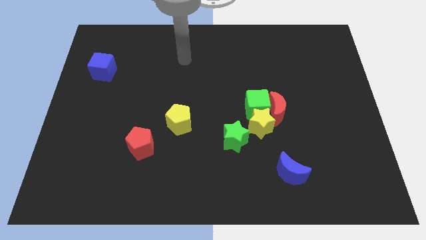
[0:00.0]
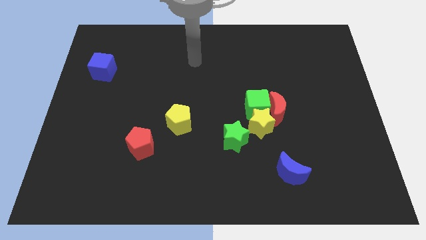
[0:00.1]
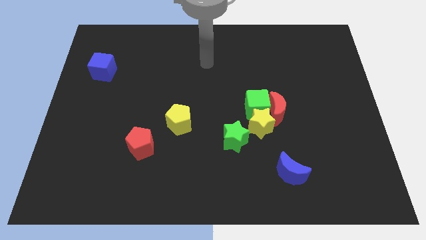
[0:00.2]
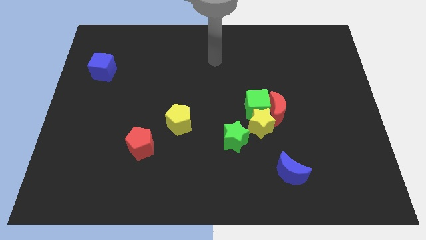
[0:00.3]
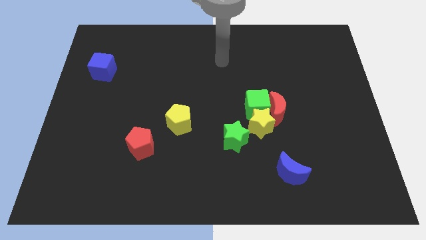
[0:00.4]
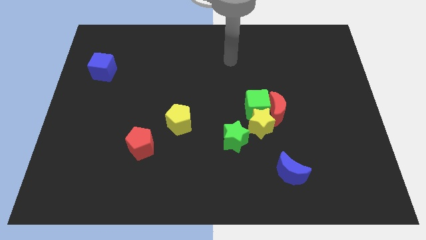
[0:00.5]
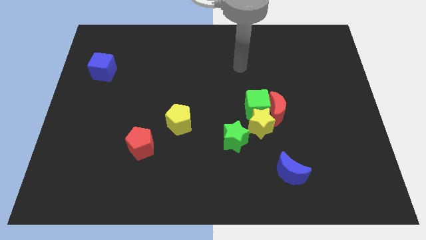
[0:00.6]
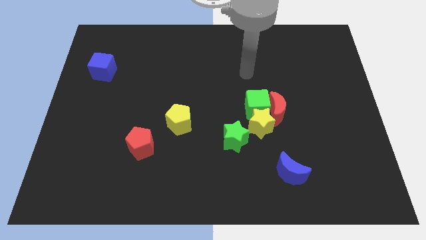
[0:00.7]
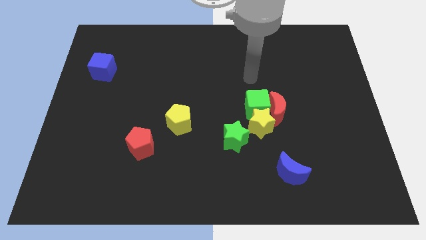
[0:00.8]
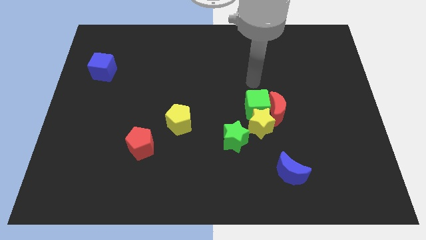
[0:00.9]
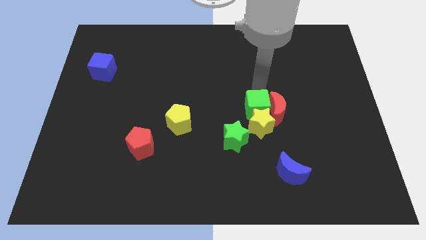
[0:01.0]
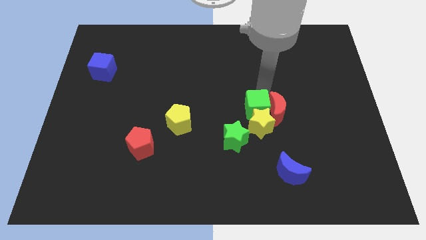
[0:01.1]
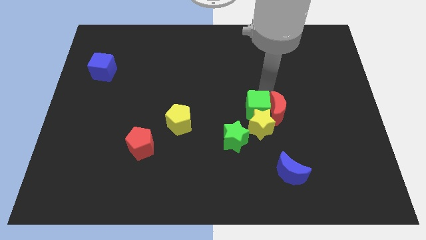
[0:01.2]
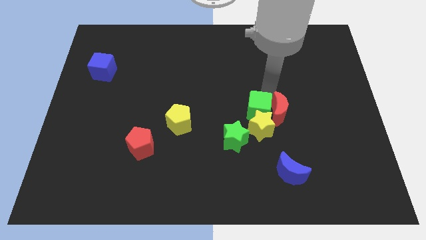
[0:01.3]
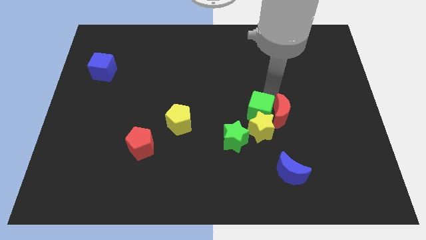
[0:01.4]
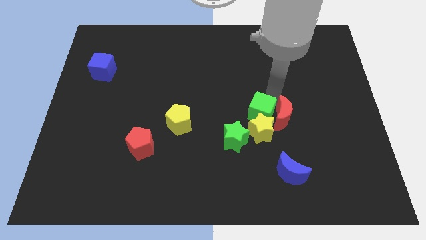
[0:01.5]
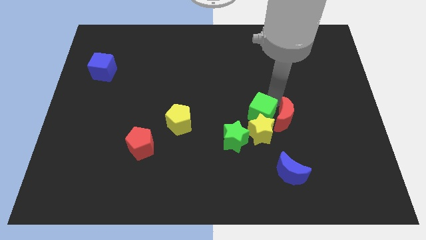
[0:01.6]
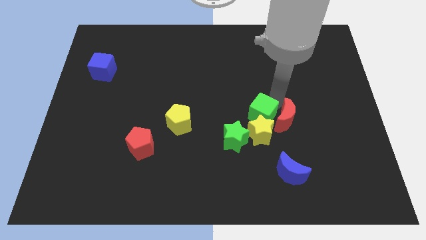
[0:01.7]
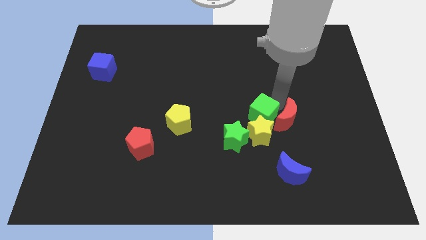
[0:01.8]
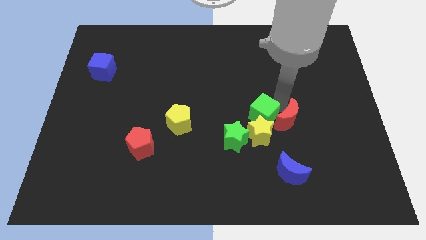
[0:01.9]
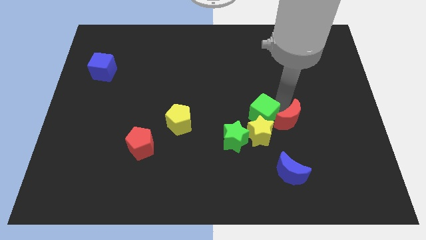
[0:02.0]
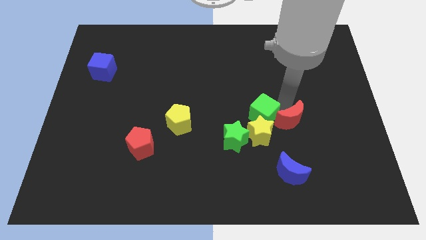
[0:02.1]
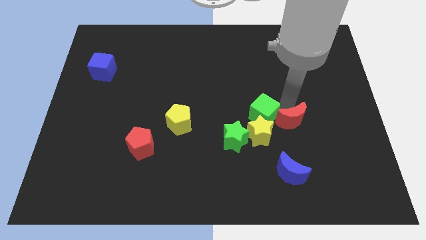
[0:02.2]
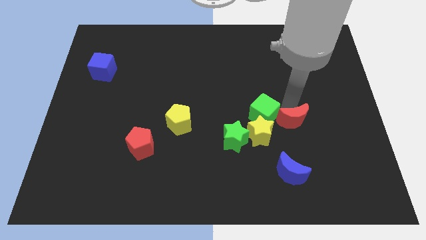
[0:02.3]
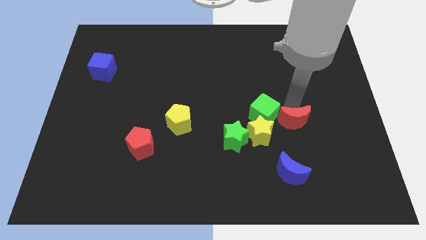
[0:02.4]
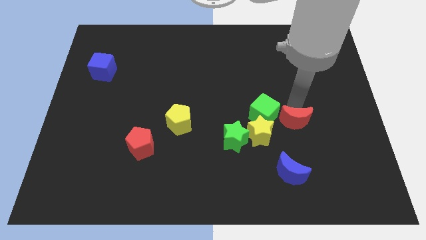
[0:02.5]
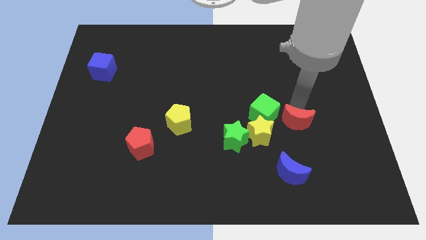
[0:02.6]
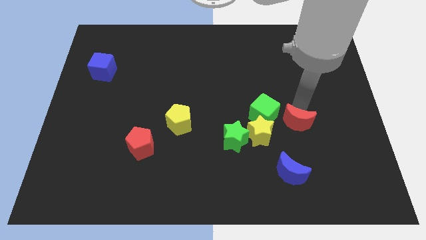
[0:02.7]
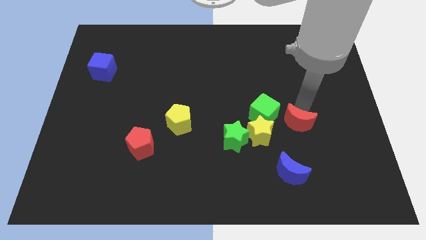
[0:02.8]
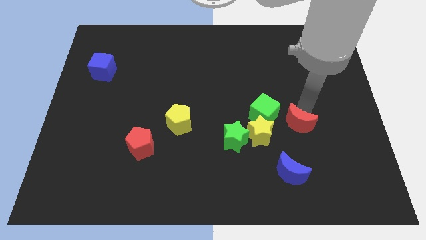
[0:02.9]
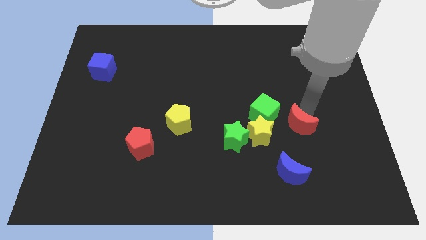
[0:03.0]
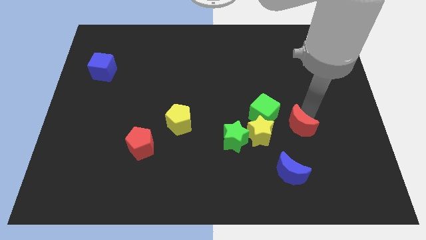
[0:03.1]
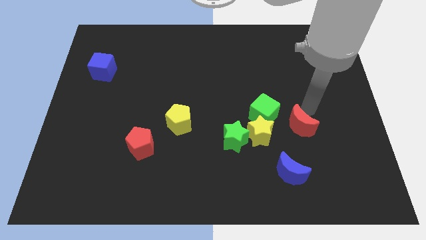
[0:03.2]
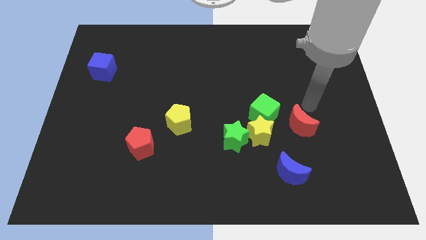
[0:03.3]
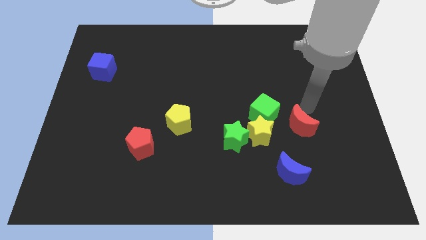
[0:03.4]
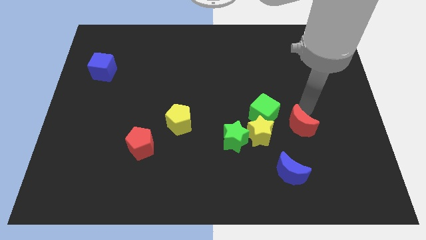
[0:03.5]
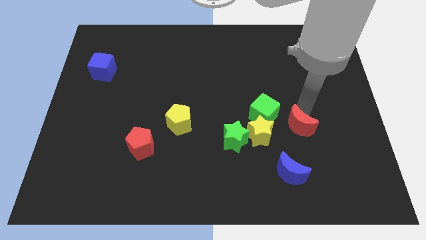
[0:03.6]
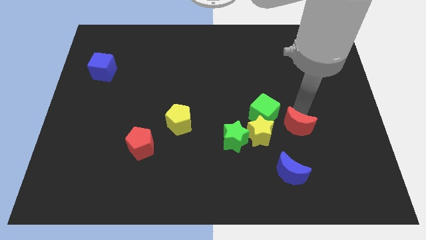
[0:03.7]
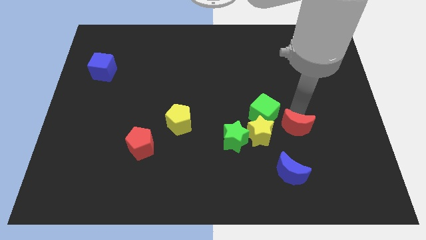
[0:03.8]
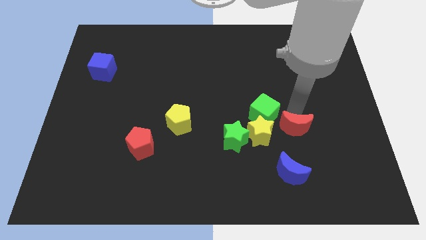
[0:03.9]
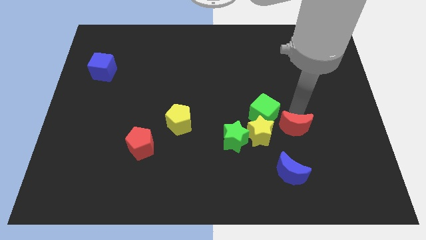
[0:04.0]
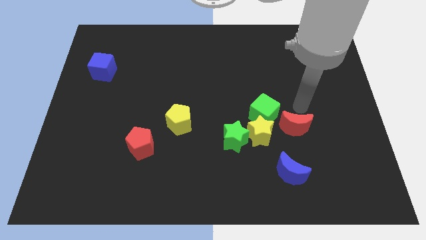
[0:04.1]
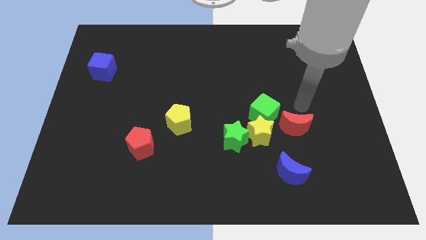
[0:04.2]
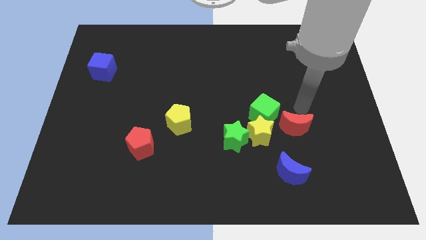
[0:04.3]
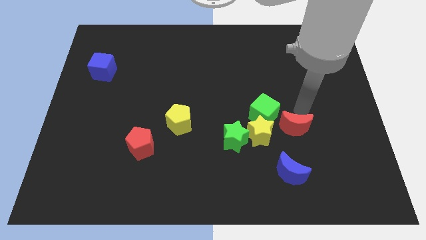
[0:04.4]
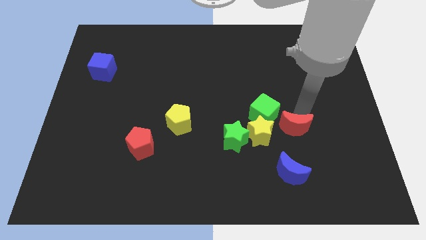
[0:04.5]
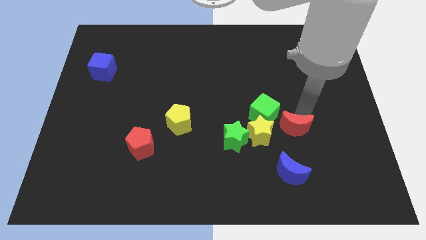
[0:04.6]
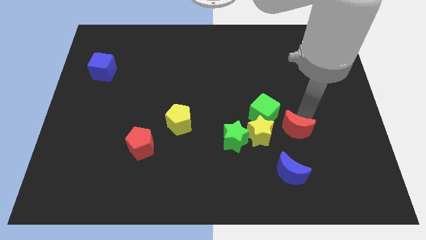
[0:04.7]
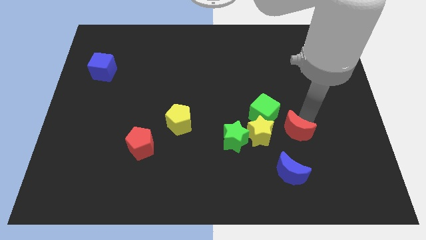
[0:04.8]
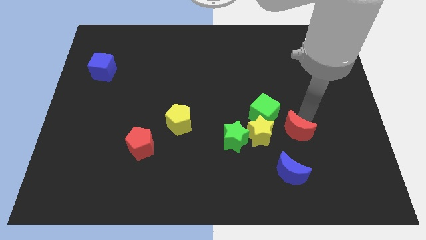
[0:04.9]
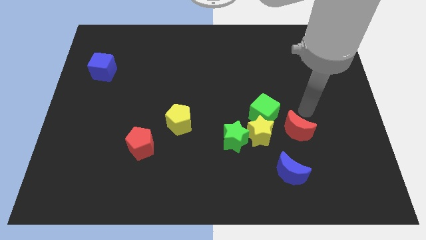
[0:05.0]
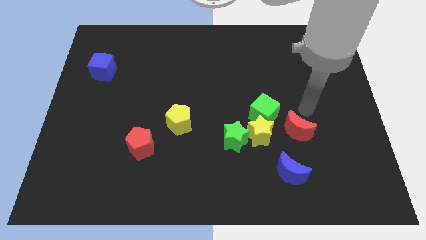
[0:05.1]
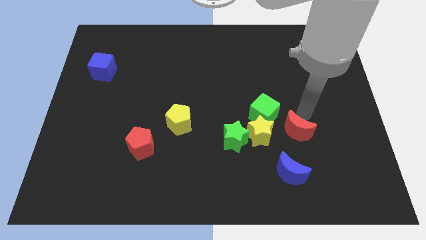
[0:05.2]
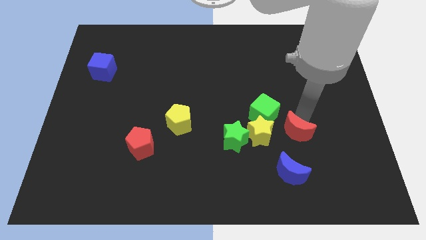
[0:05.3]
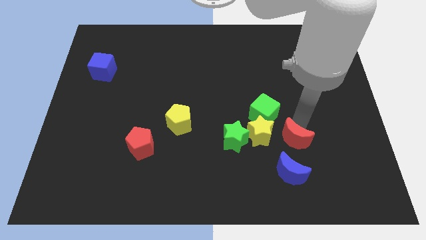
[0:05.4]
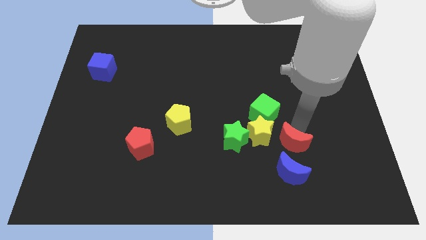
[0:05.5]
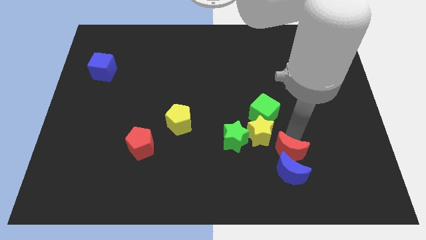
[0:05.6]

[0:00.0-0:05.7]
put the red moon close to the blue moon

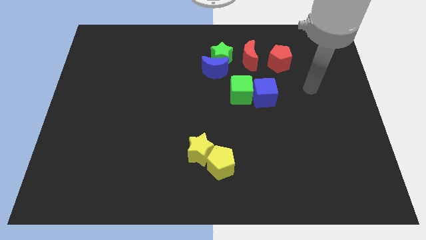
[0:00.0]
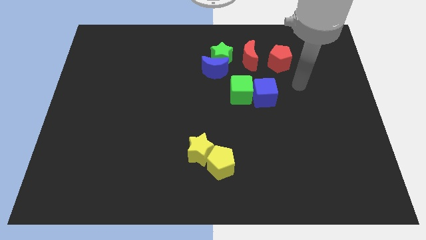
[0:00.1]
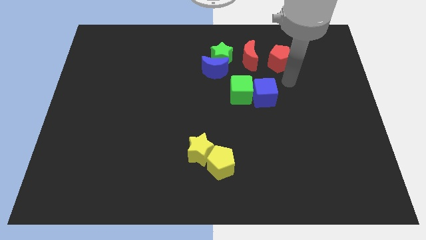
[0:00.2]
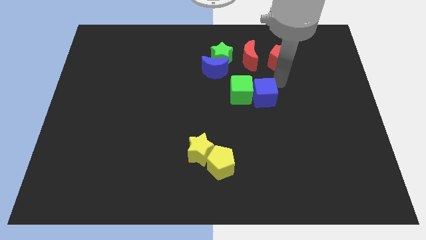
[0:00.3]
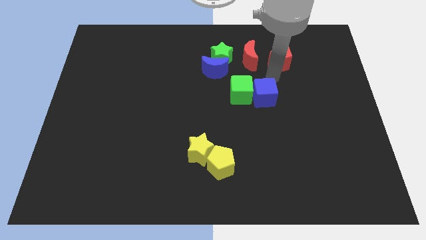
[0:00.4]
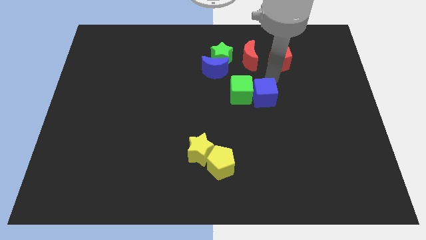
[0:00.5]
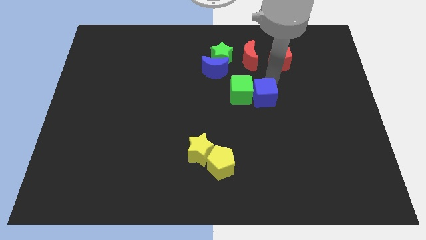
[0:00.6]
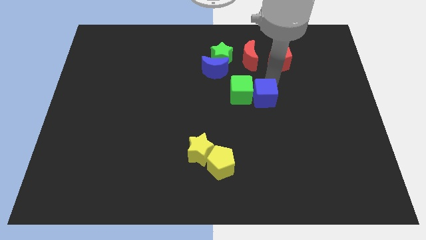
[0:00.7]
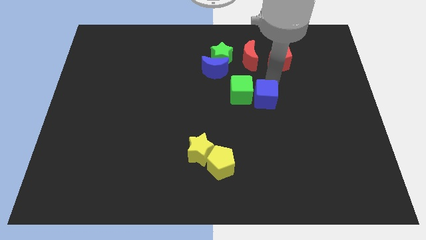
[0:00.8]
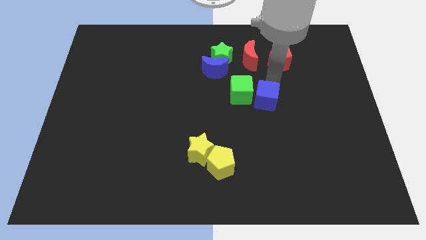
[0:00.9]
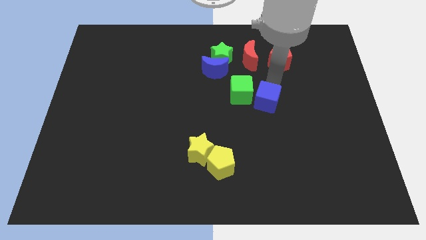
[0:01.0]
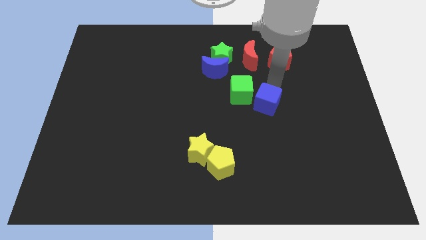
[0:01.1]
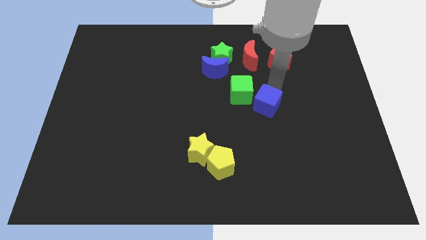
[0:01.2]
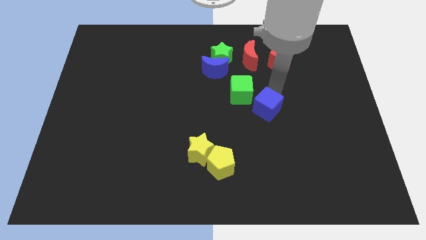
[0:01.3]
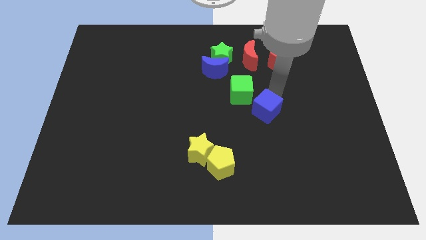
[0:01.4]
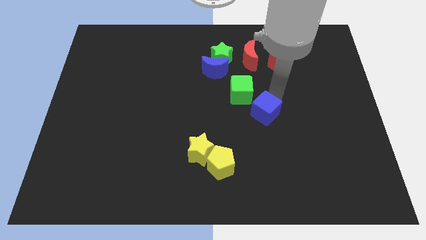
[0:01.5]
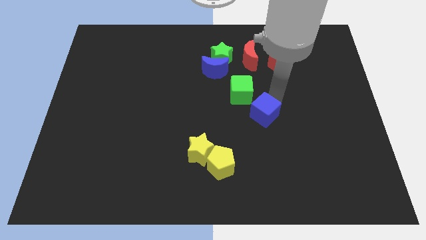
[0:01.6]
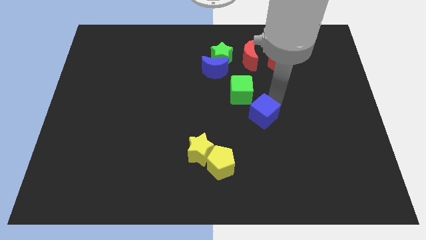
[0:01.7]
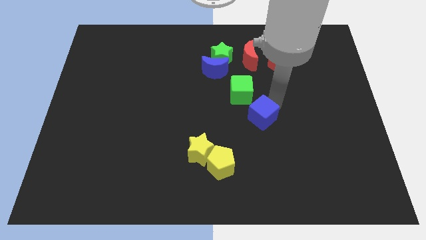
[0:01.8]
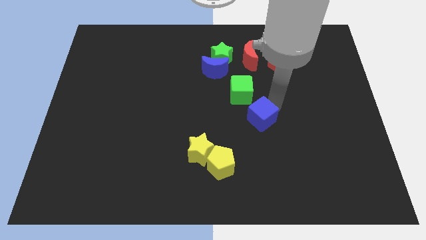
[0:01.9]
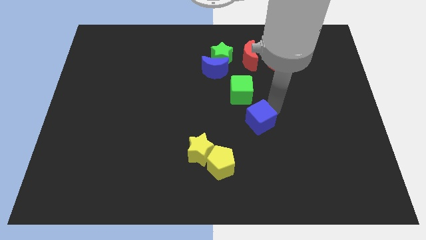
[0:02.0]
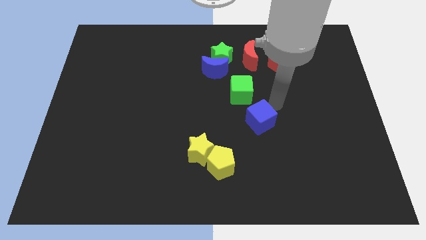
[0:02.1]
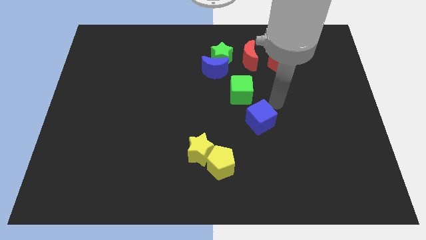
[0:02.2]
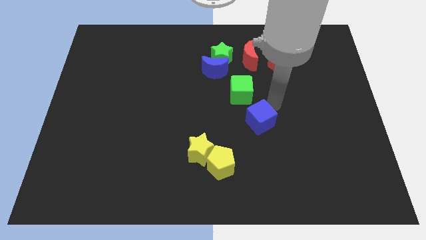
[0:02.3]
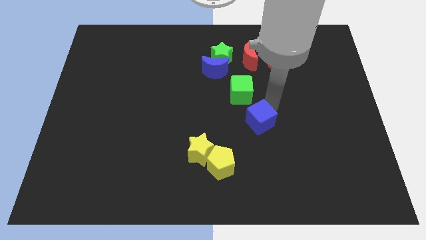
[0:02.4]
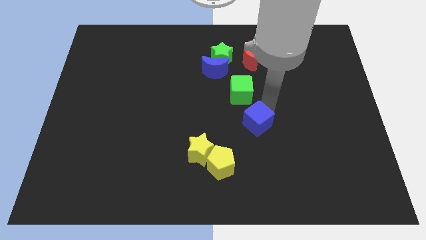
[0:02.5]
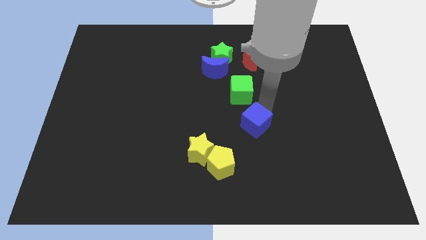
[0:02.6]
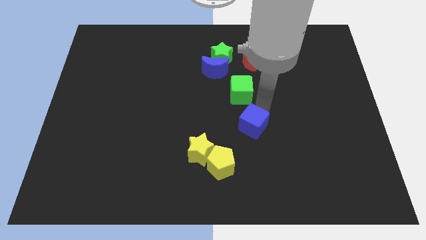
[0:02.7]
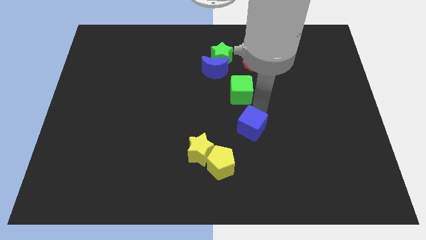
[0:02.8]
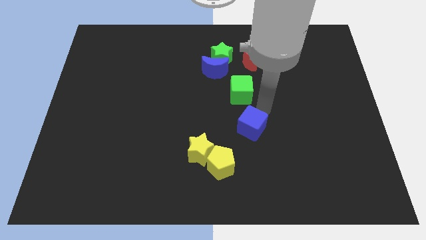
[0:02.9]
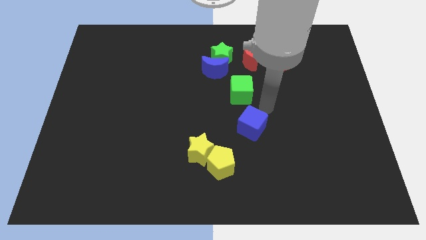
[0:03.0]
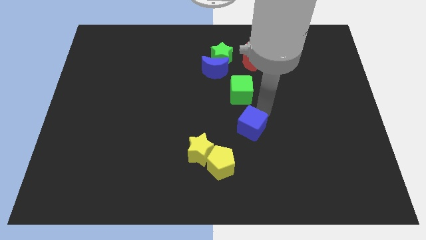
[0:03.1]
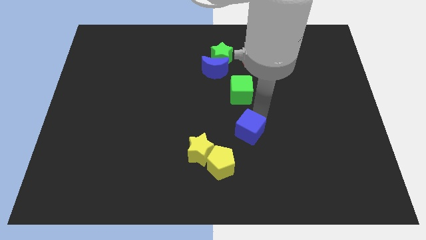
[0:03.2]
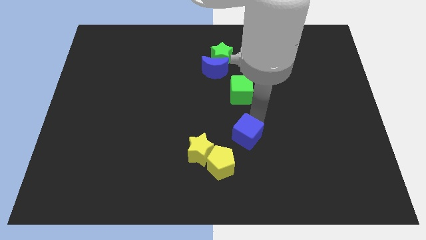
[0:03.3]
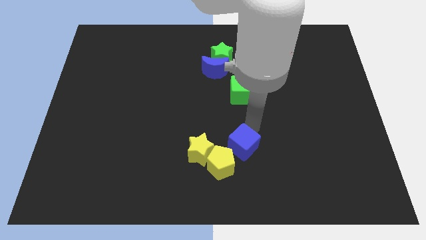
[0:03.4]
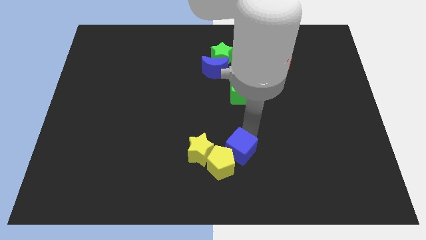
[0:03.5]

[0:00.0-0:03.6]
move the blue cube to the yellow pentagon
